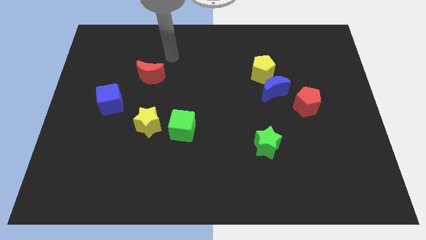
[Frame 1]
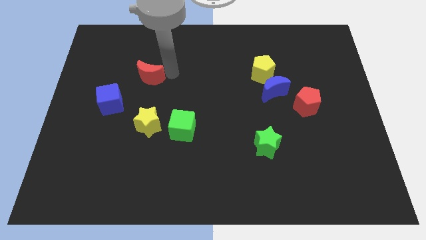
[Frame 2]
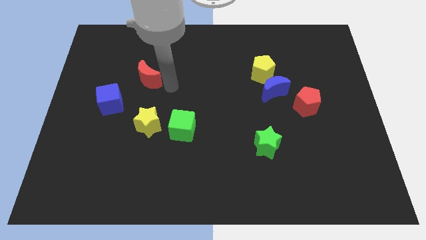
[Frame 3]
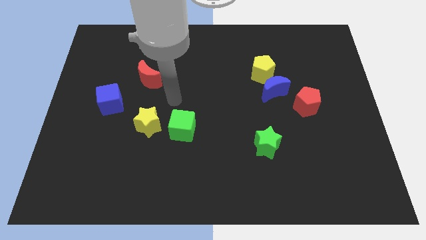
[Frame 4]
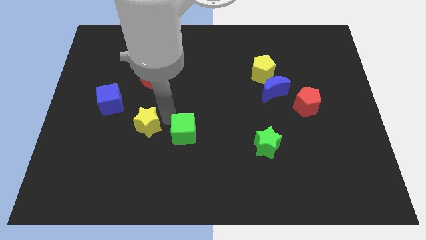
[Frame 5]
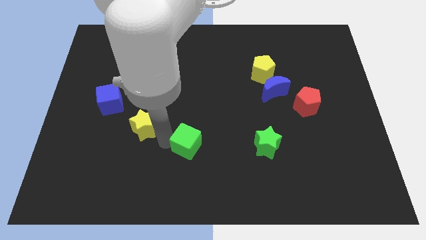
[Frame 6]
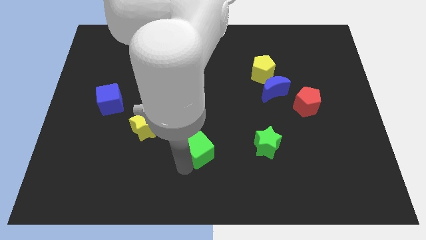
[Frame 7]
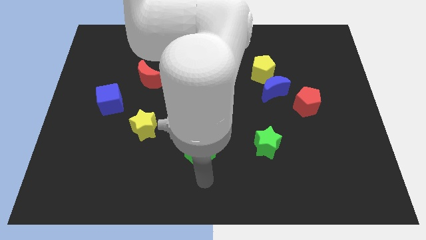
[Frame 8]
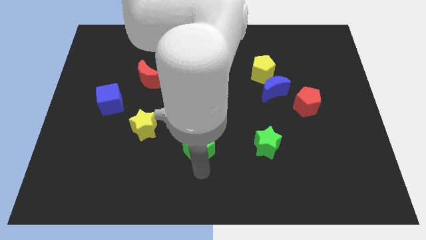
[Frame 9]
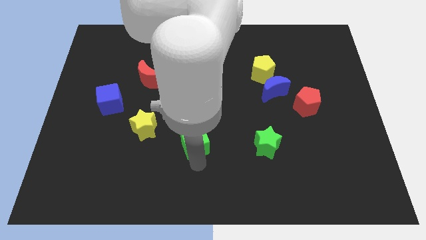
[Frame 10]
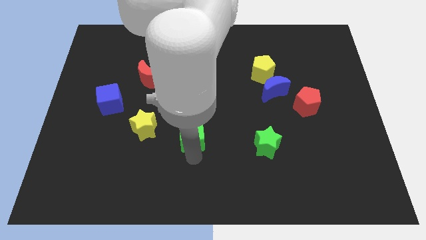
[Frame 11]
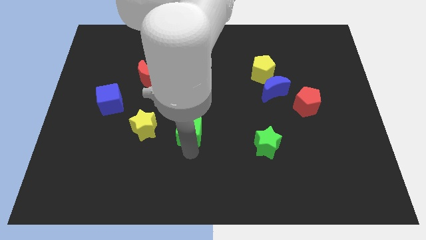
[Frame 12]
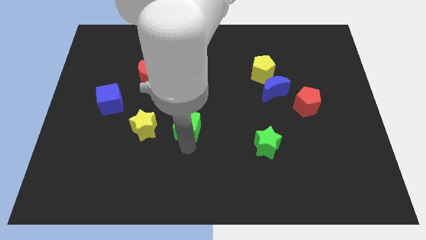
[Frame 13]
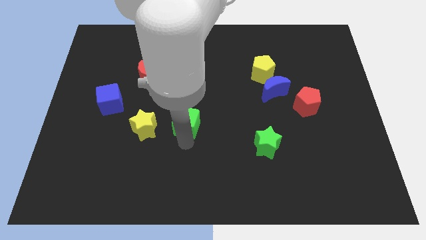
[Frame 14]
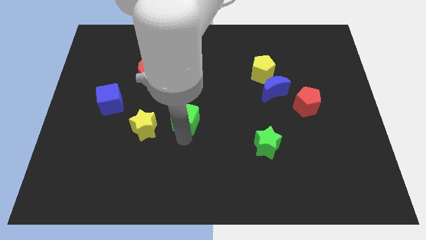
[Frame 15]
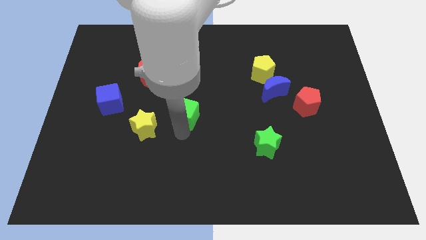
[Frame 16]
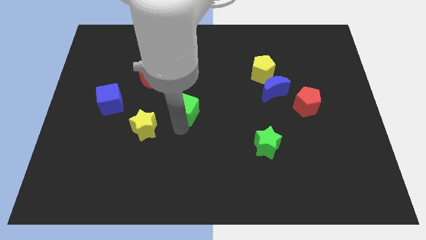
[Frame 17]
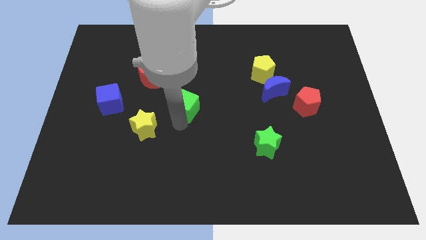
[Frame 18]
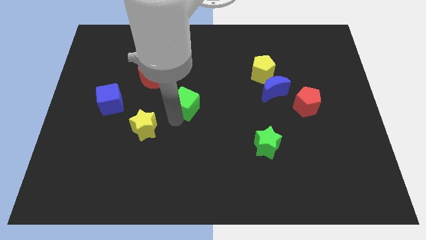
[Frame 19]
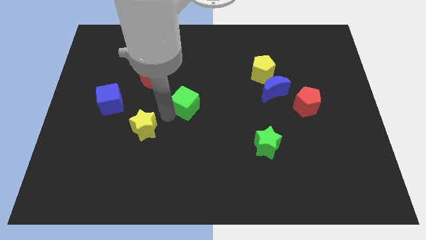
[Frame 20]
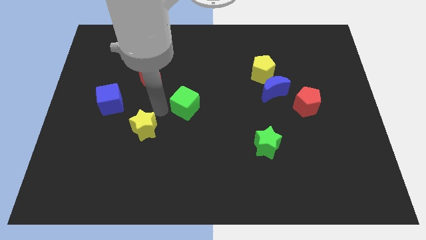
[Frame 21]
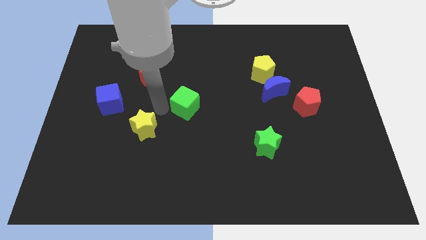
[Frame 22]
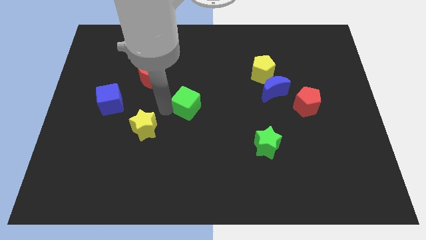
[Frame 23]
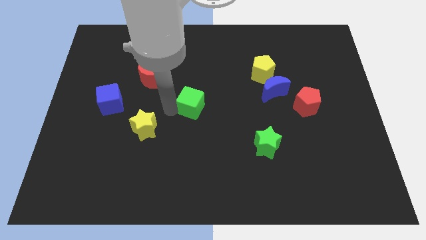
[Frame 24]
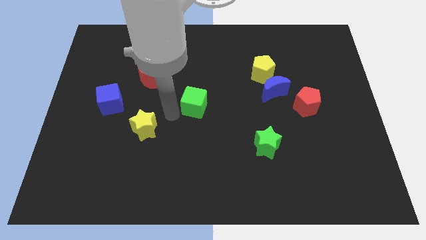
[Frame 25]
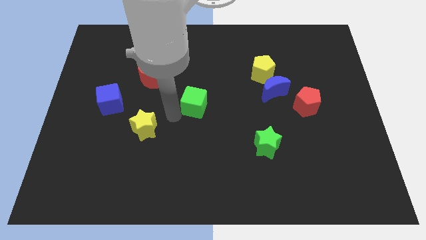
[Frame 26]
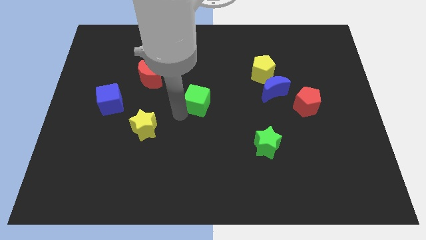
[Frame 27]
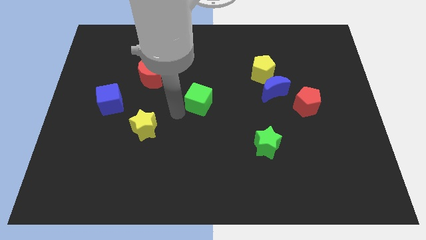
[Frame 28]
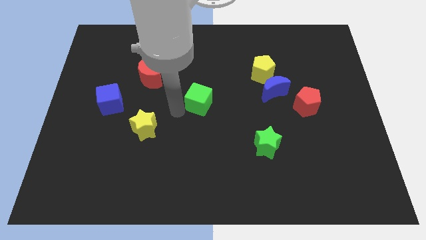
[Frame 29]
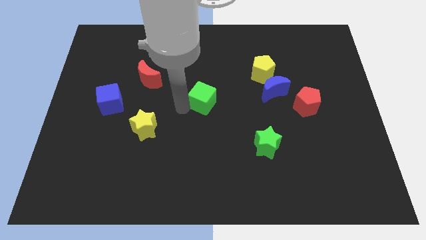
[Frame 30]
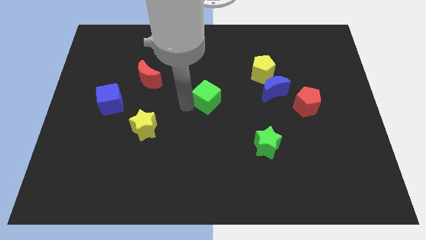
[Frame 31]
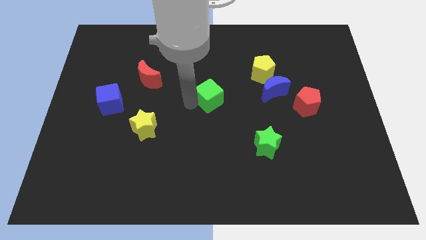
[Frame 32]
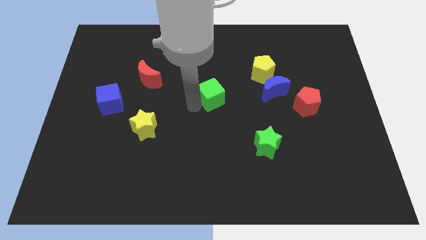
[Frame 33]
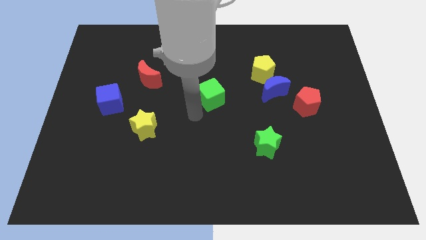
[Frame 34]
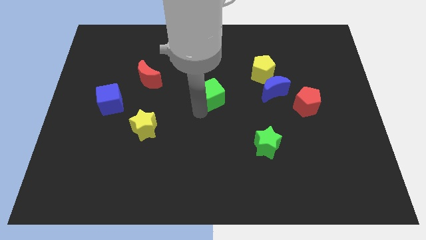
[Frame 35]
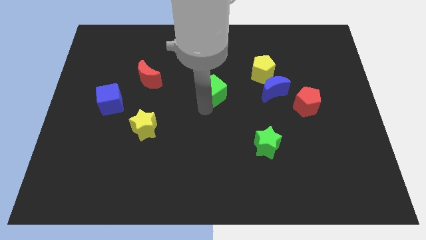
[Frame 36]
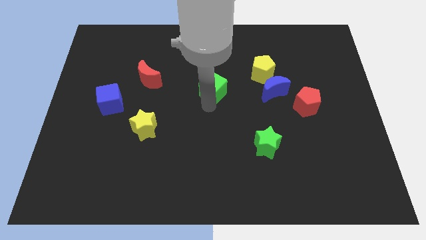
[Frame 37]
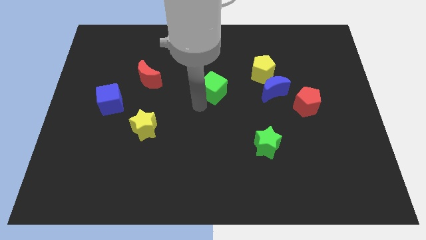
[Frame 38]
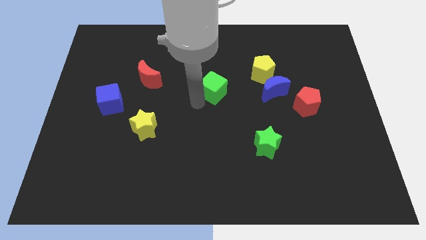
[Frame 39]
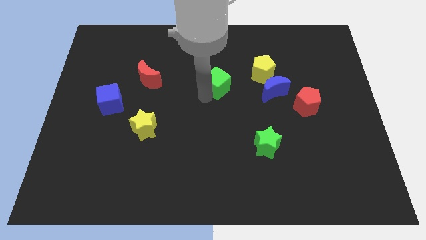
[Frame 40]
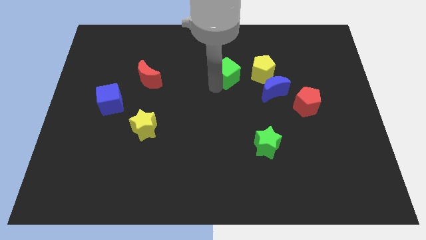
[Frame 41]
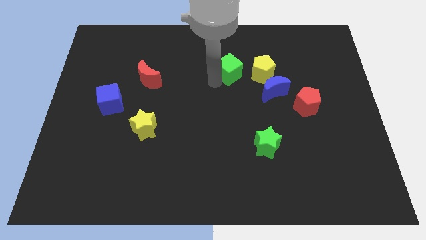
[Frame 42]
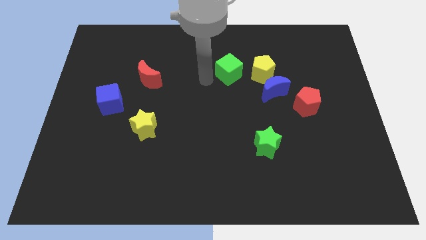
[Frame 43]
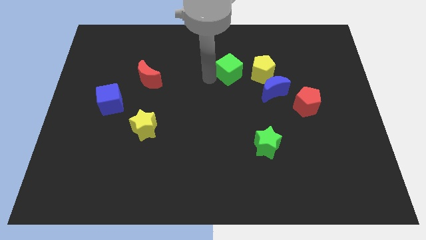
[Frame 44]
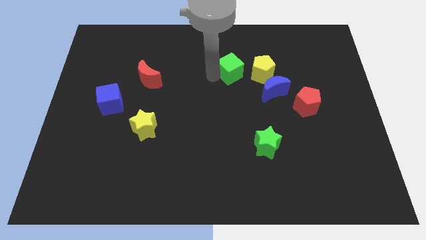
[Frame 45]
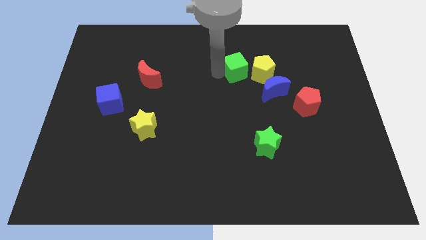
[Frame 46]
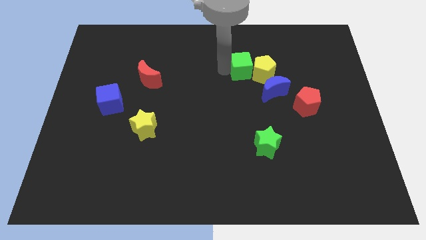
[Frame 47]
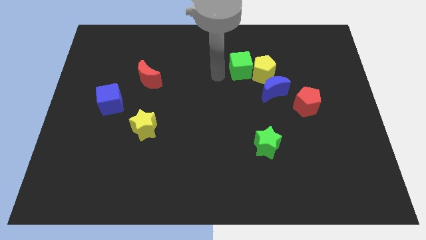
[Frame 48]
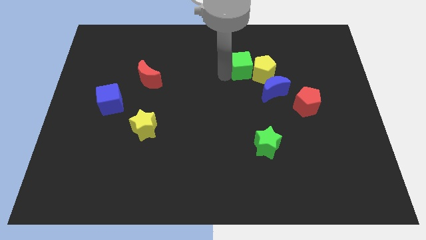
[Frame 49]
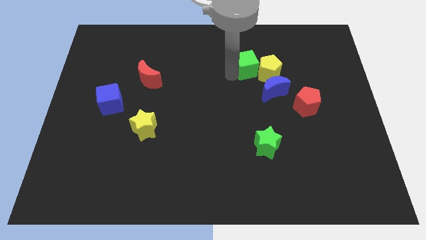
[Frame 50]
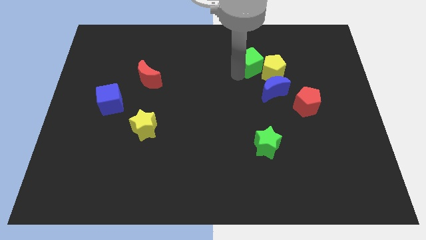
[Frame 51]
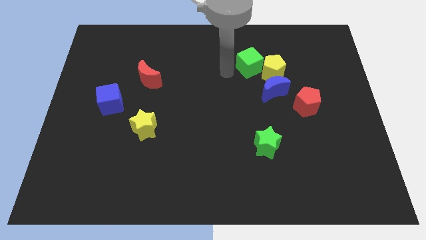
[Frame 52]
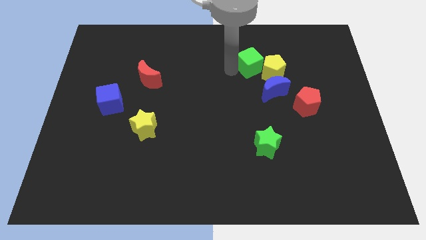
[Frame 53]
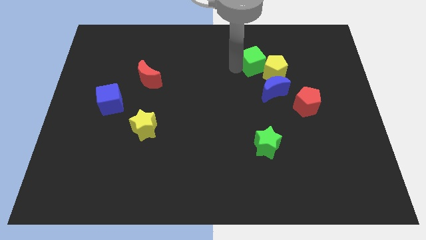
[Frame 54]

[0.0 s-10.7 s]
move the green cube to the top side of the blue moon

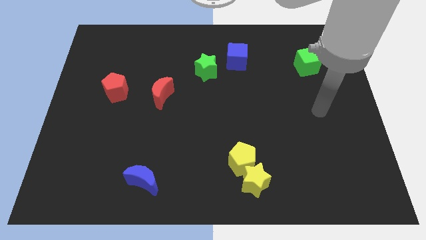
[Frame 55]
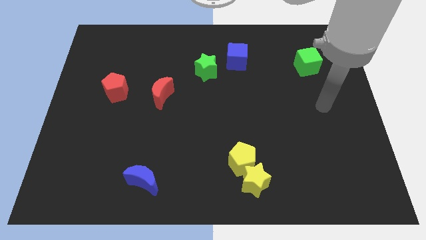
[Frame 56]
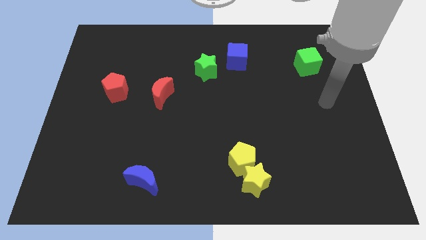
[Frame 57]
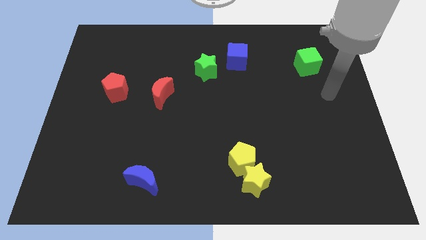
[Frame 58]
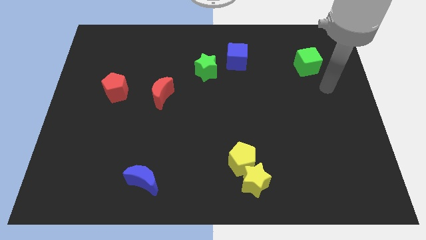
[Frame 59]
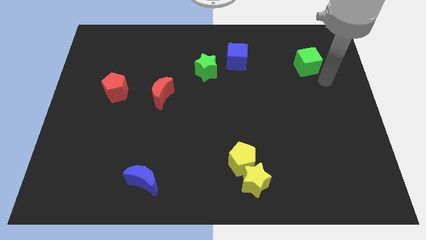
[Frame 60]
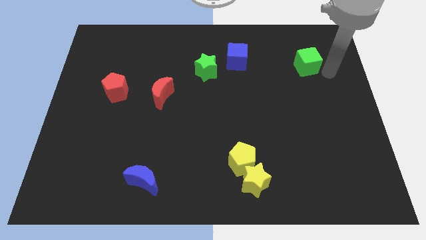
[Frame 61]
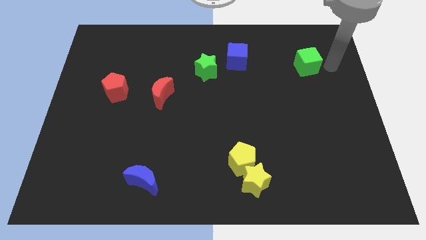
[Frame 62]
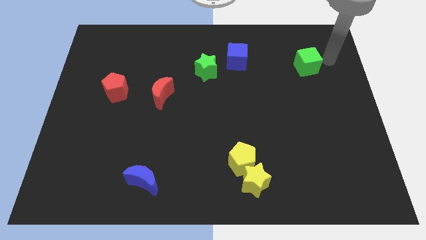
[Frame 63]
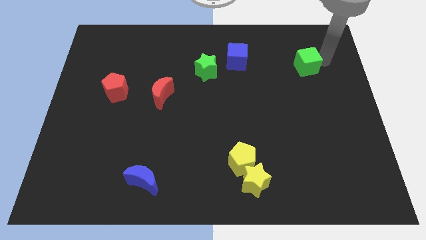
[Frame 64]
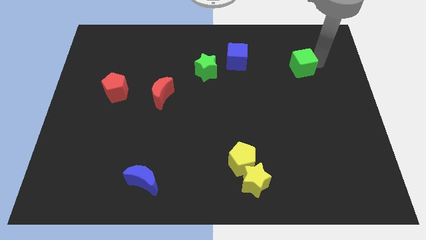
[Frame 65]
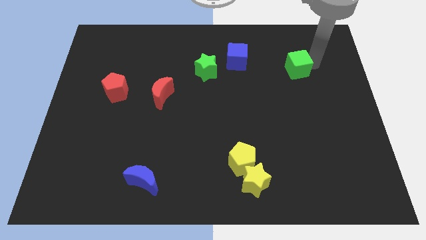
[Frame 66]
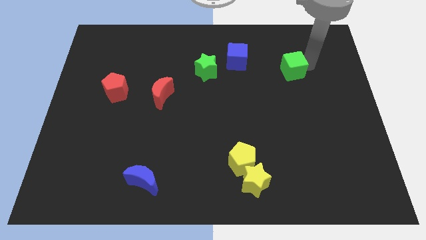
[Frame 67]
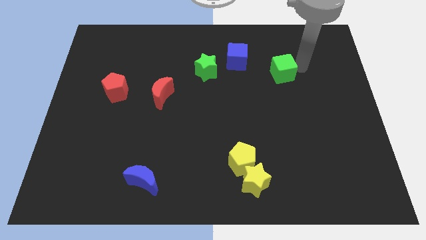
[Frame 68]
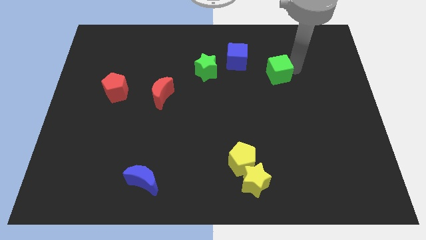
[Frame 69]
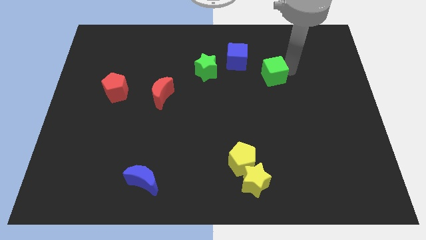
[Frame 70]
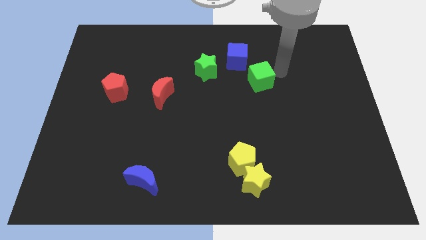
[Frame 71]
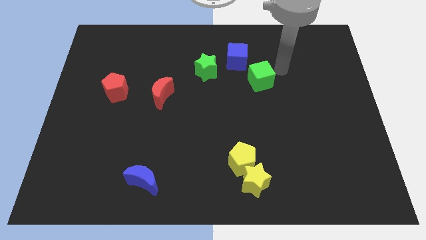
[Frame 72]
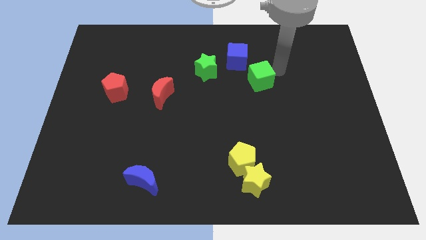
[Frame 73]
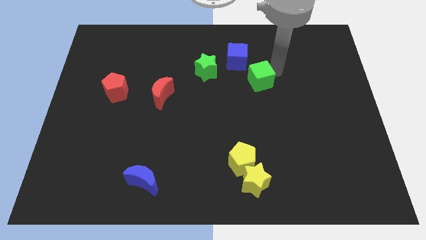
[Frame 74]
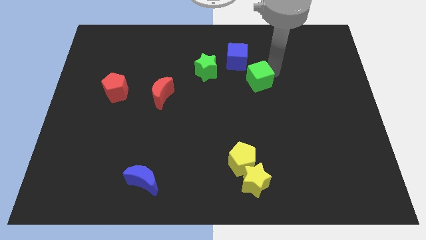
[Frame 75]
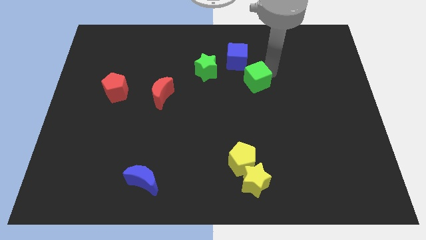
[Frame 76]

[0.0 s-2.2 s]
slide the green cube to the bottom side of the blue cube
